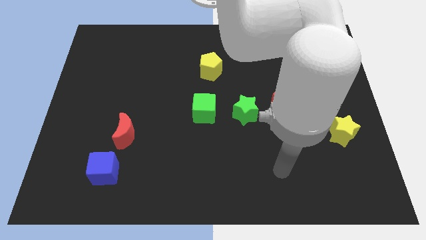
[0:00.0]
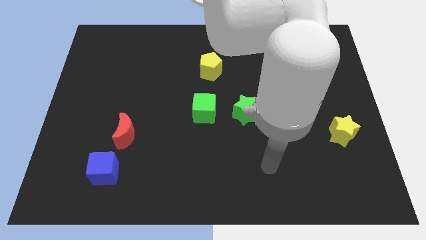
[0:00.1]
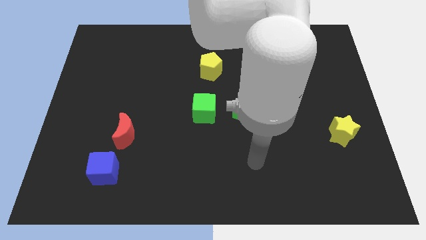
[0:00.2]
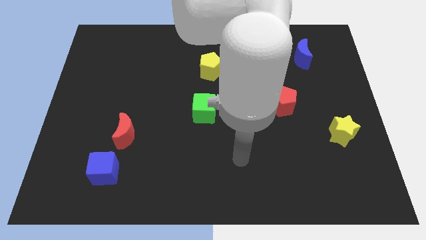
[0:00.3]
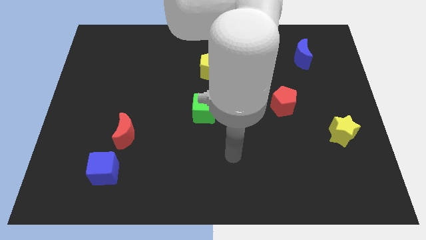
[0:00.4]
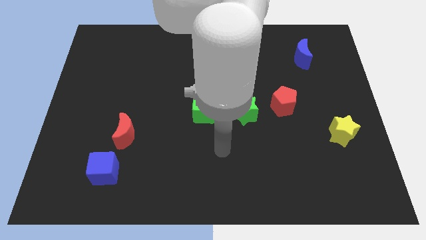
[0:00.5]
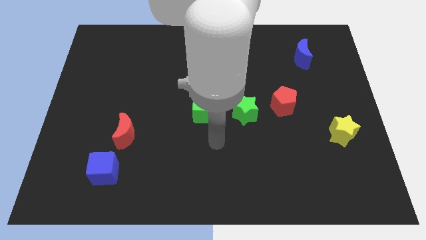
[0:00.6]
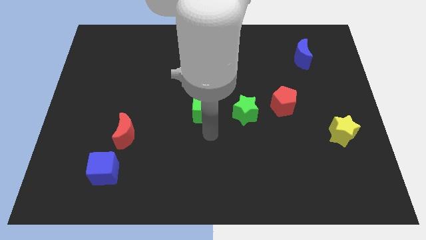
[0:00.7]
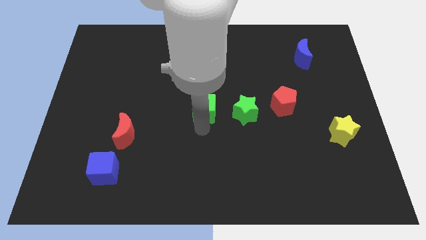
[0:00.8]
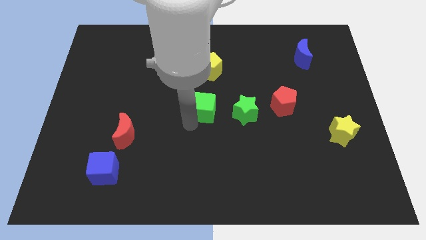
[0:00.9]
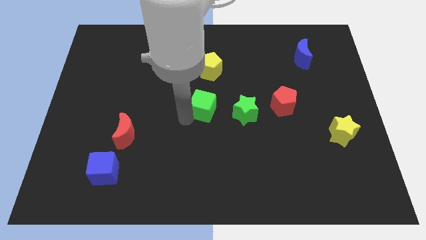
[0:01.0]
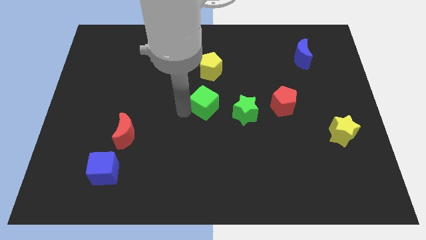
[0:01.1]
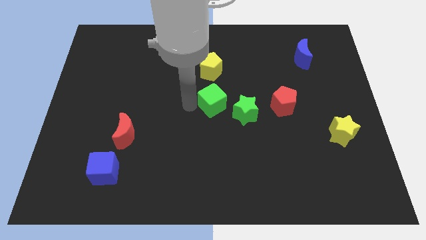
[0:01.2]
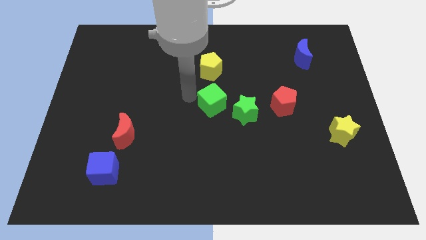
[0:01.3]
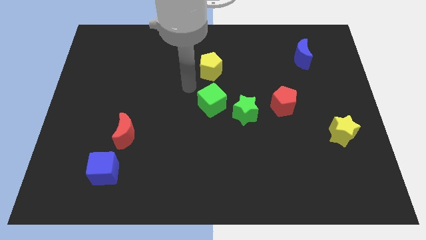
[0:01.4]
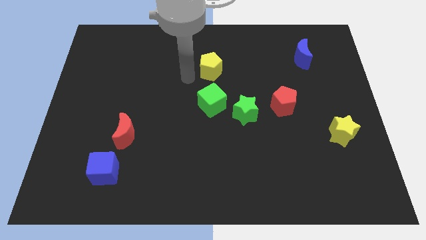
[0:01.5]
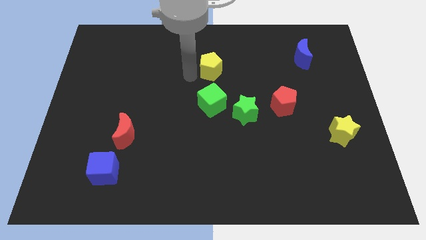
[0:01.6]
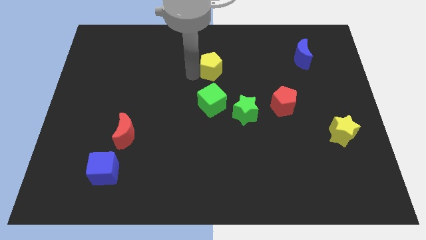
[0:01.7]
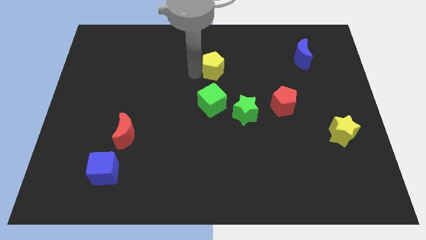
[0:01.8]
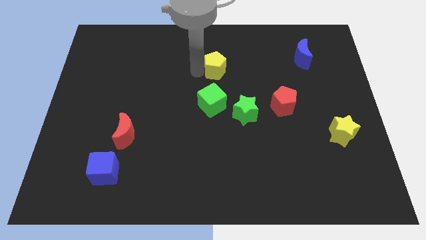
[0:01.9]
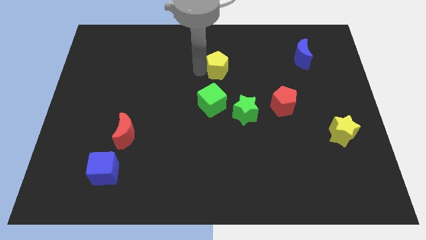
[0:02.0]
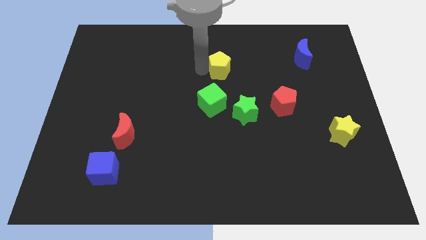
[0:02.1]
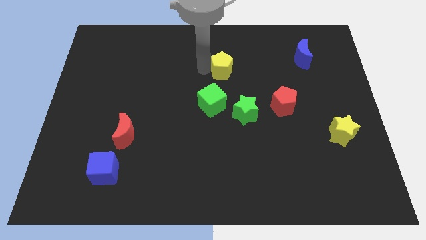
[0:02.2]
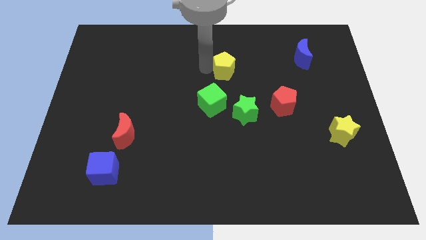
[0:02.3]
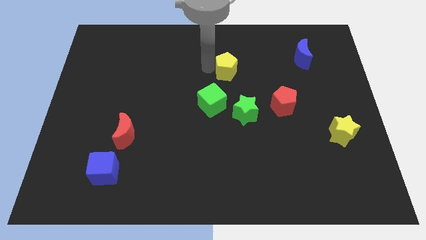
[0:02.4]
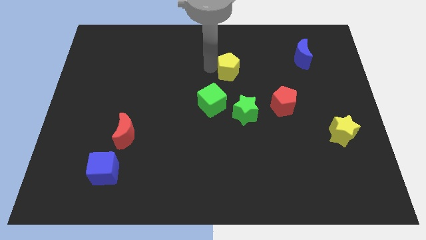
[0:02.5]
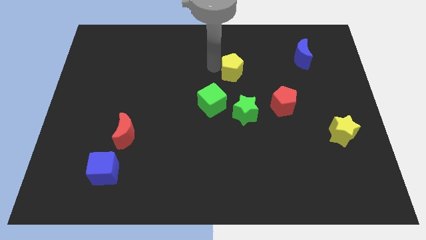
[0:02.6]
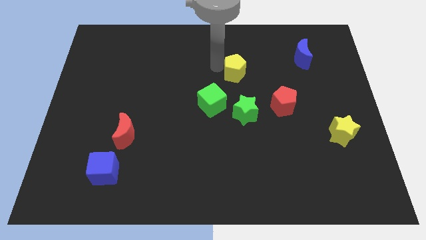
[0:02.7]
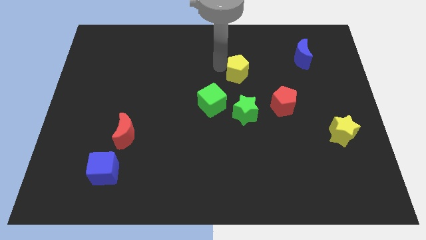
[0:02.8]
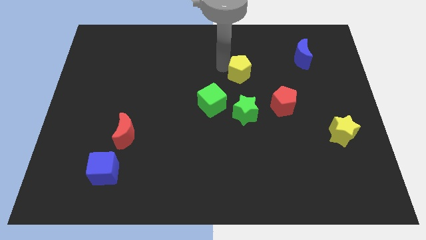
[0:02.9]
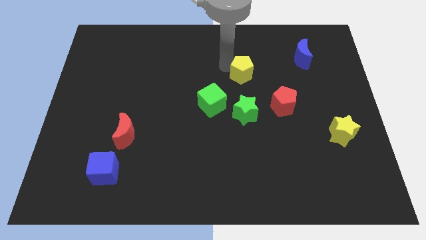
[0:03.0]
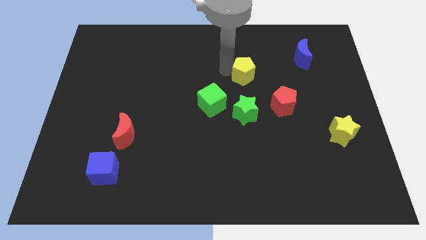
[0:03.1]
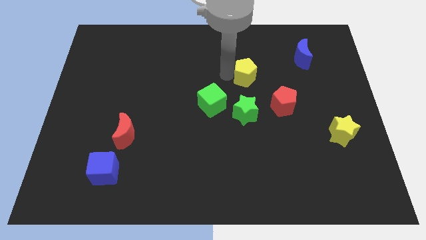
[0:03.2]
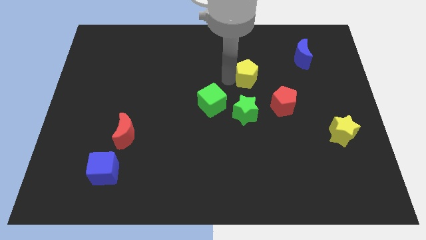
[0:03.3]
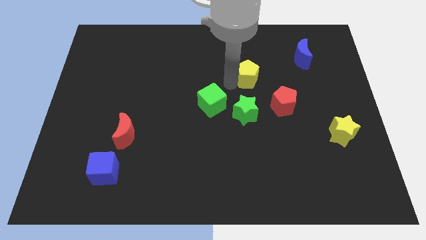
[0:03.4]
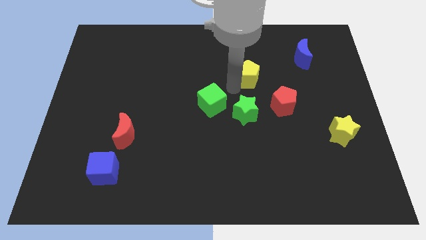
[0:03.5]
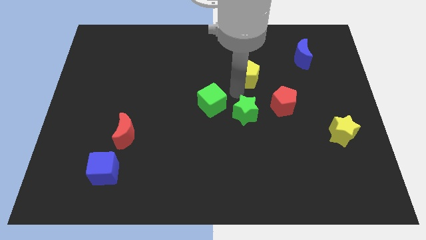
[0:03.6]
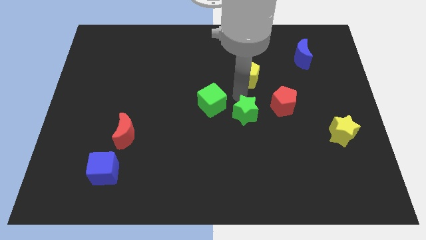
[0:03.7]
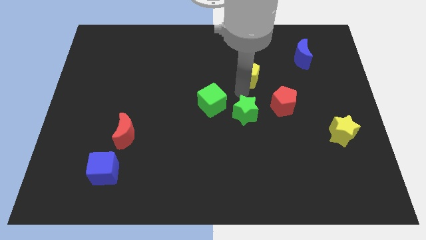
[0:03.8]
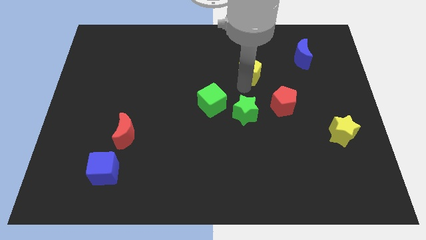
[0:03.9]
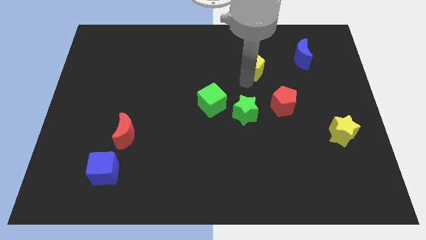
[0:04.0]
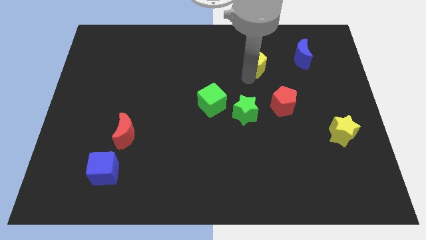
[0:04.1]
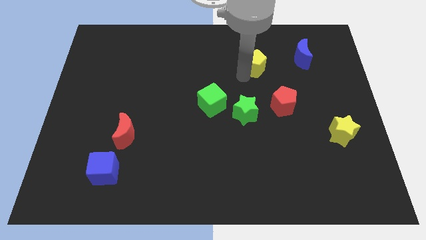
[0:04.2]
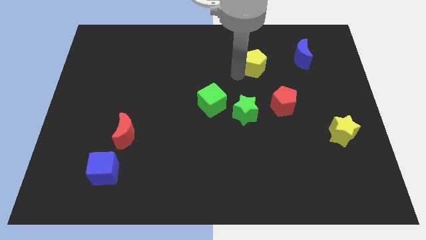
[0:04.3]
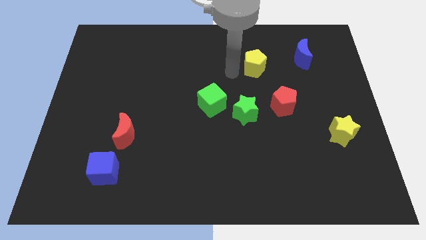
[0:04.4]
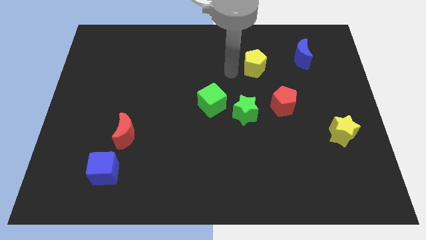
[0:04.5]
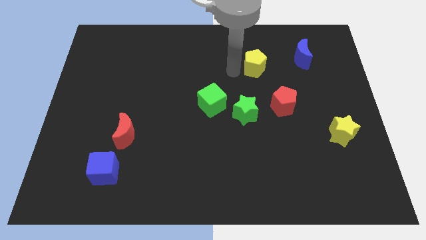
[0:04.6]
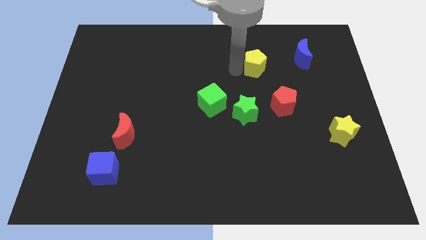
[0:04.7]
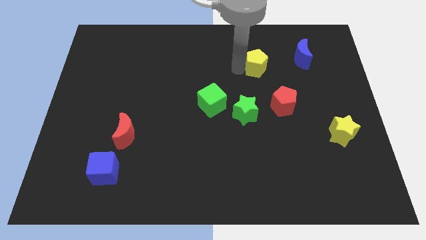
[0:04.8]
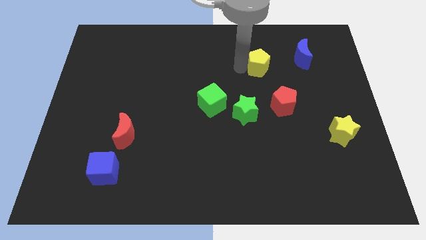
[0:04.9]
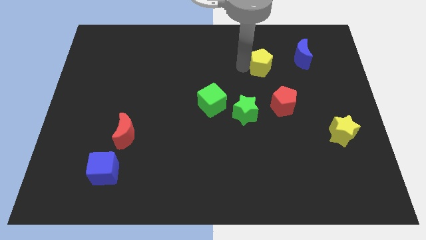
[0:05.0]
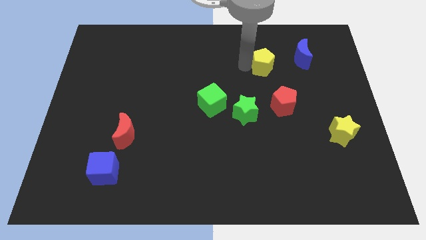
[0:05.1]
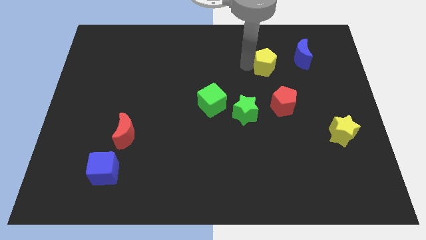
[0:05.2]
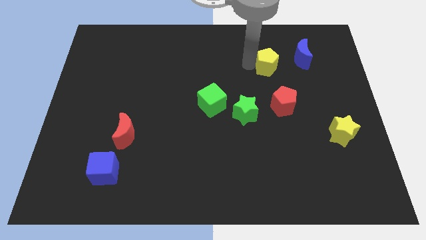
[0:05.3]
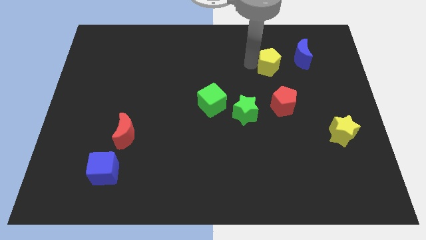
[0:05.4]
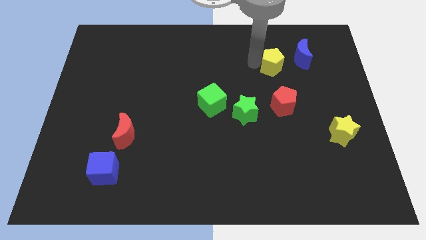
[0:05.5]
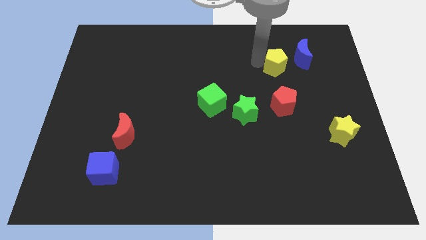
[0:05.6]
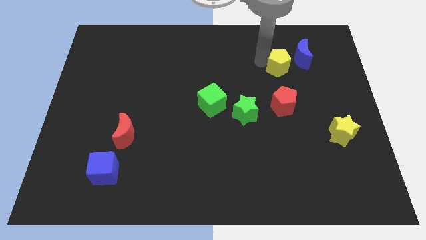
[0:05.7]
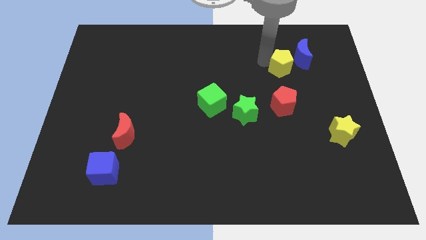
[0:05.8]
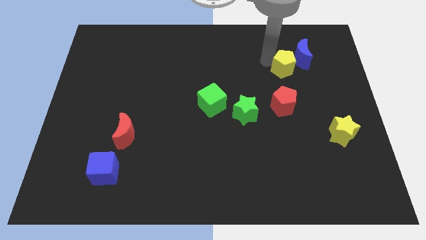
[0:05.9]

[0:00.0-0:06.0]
put the yellow pentagon to the blue moon

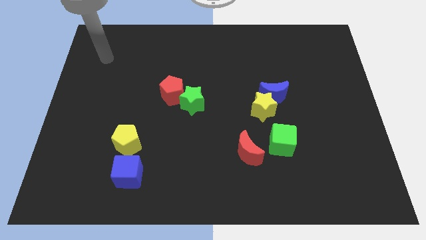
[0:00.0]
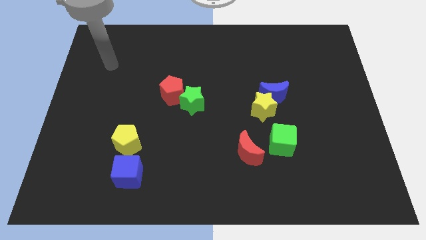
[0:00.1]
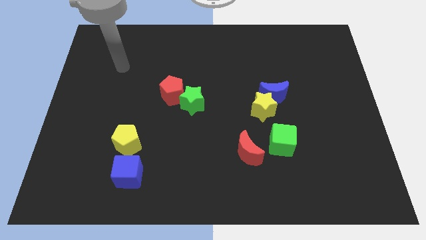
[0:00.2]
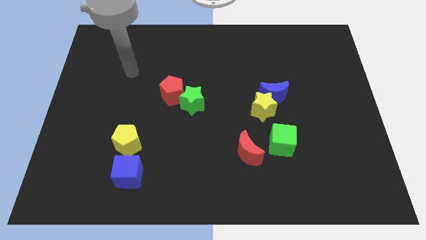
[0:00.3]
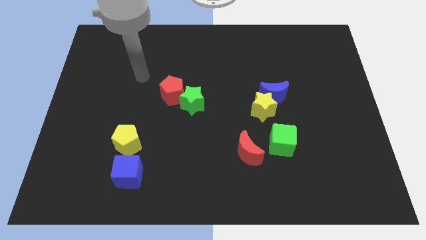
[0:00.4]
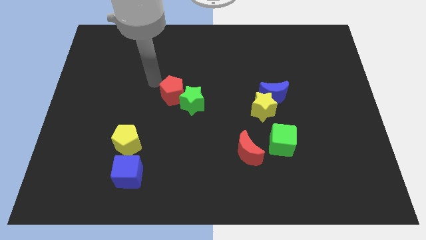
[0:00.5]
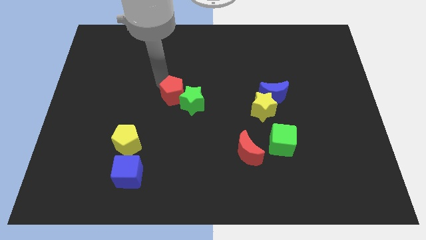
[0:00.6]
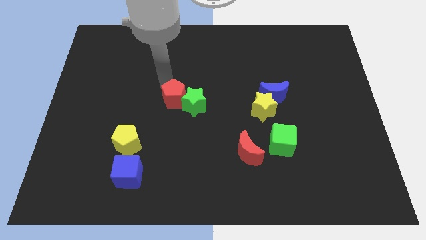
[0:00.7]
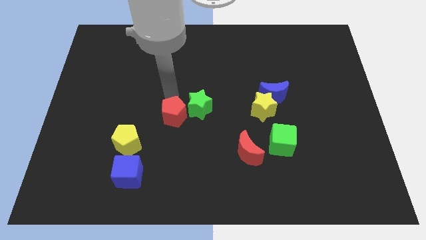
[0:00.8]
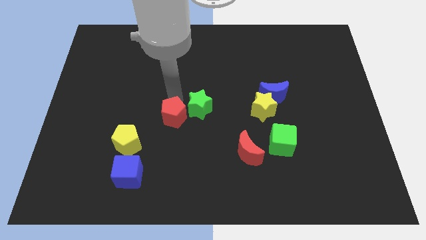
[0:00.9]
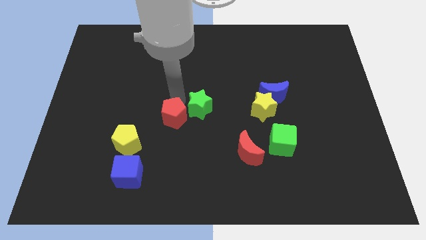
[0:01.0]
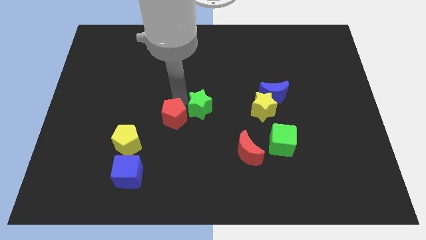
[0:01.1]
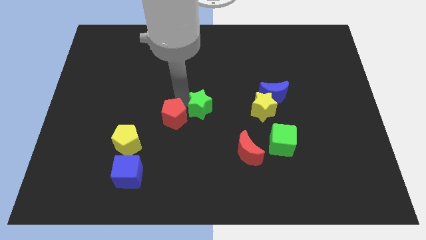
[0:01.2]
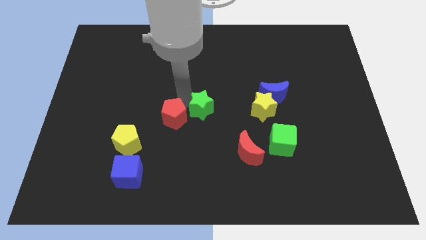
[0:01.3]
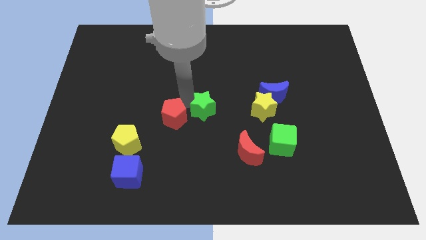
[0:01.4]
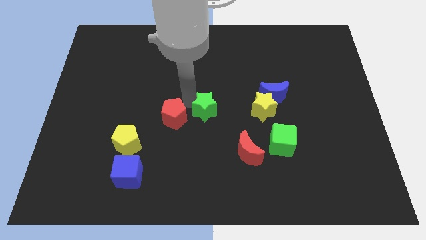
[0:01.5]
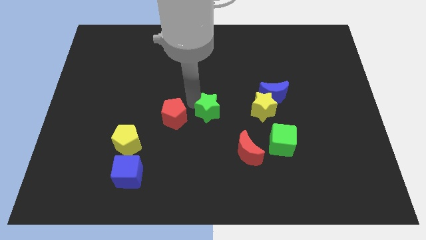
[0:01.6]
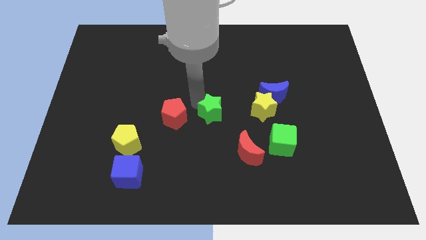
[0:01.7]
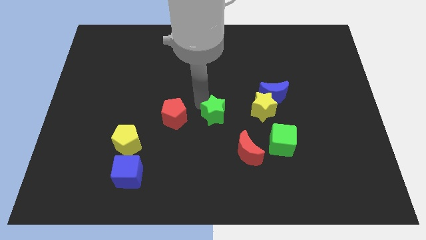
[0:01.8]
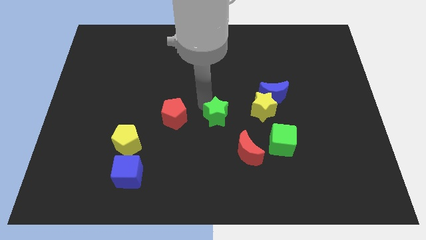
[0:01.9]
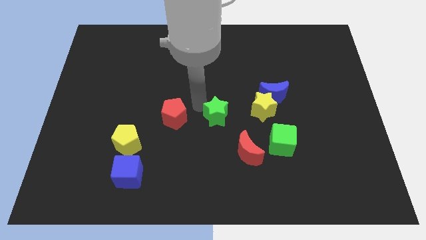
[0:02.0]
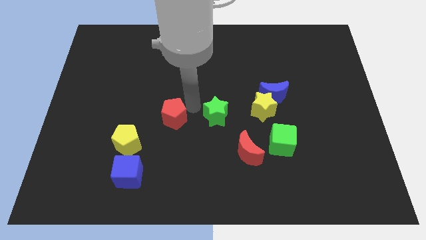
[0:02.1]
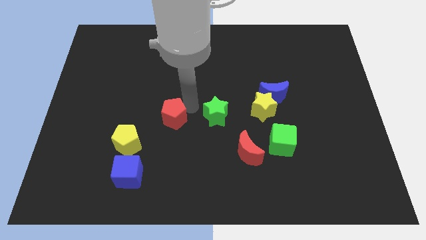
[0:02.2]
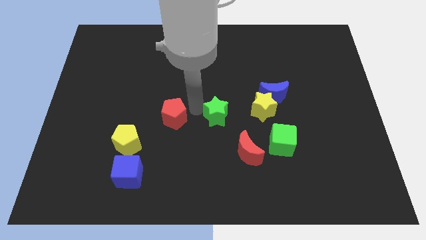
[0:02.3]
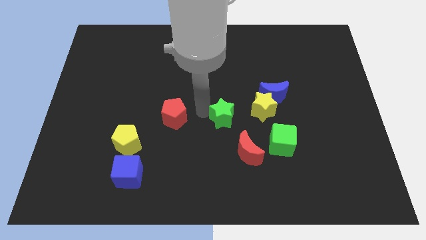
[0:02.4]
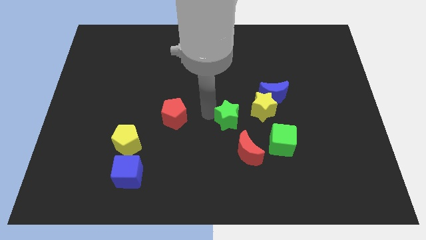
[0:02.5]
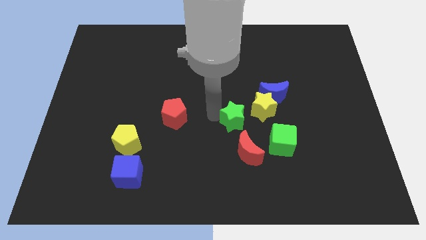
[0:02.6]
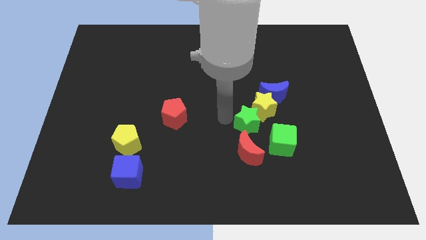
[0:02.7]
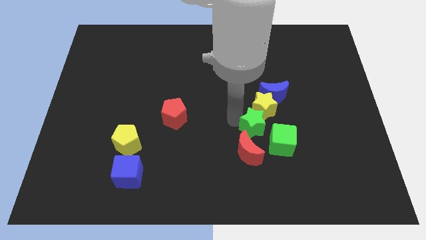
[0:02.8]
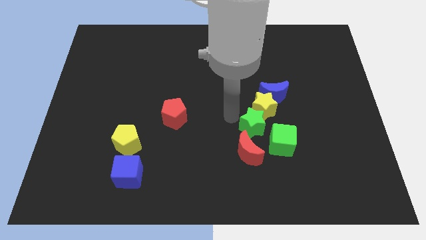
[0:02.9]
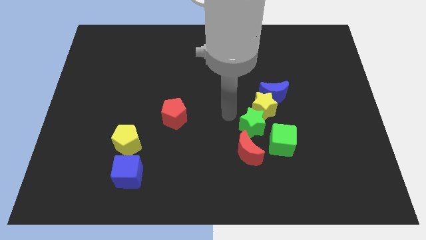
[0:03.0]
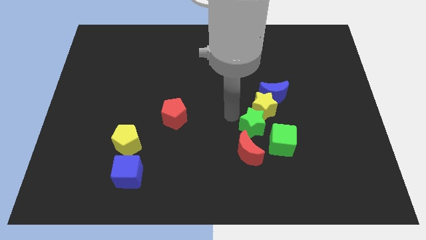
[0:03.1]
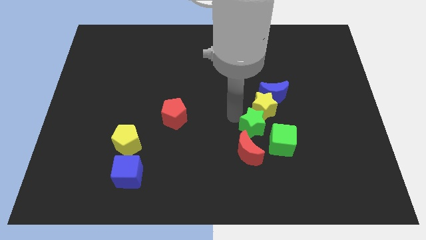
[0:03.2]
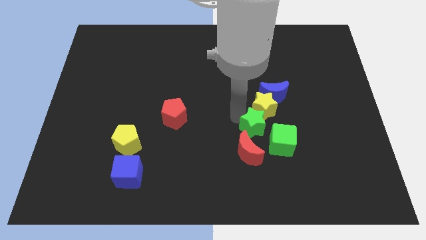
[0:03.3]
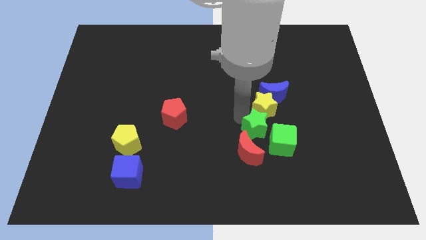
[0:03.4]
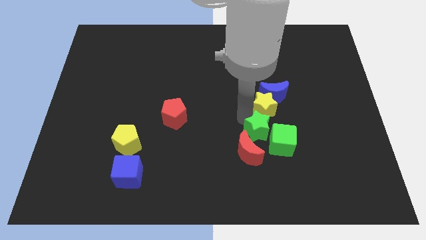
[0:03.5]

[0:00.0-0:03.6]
slide the green star next to the green cube
